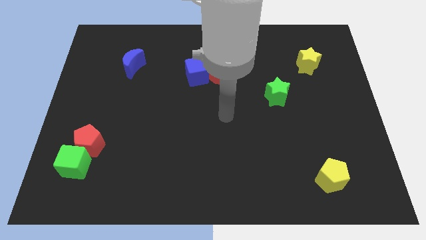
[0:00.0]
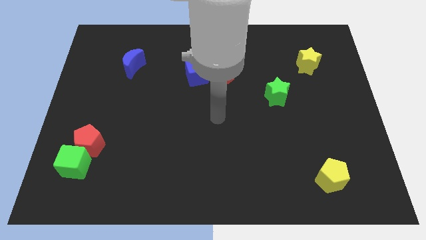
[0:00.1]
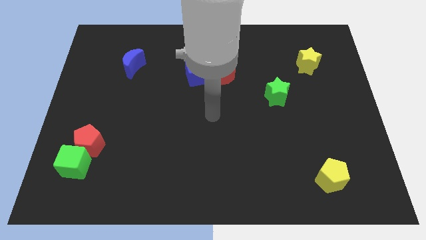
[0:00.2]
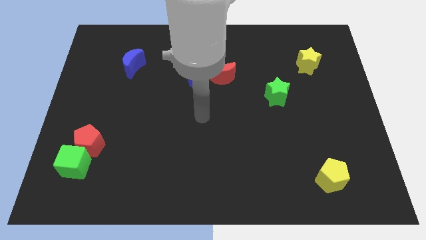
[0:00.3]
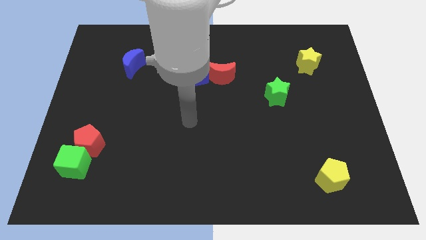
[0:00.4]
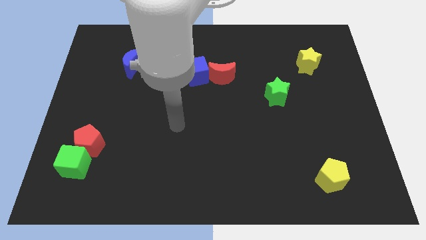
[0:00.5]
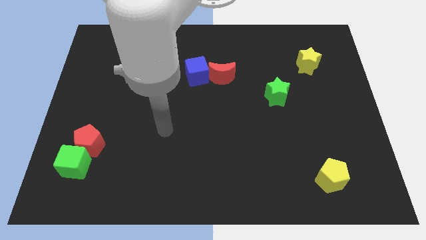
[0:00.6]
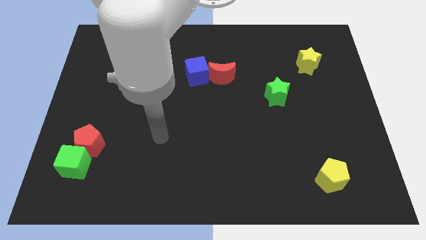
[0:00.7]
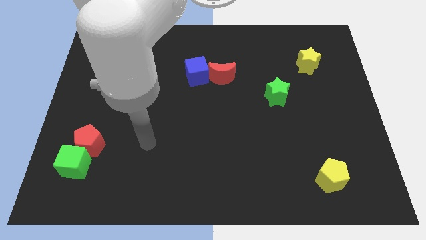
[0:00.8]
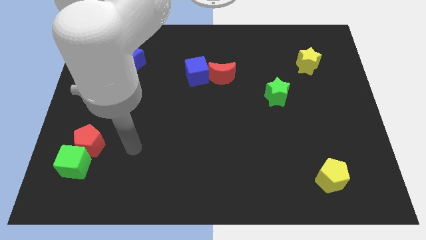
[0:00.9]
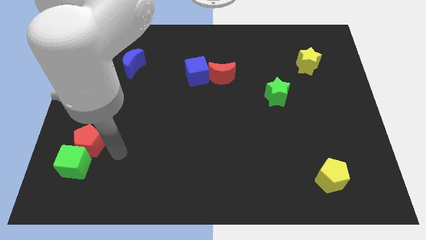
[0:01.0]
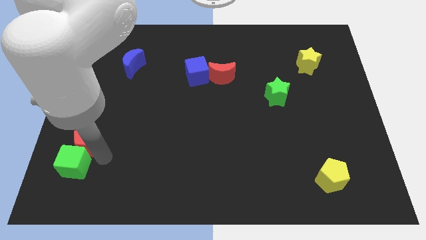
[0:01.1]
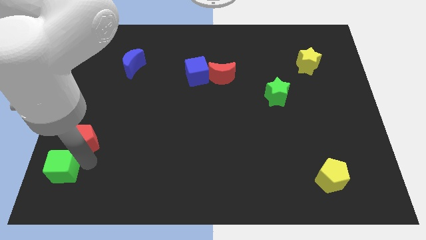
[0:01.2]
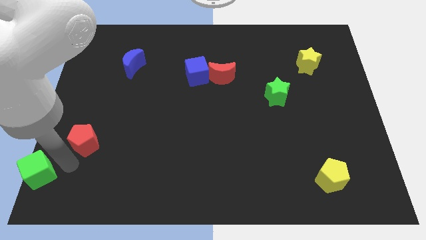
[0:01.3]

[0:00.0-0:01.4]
pull the red pentagon apart from the green cube

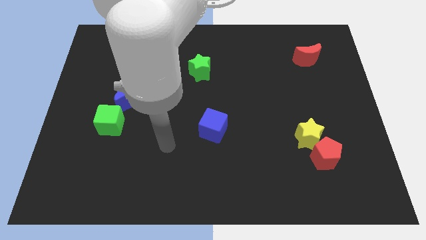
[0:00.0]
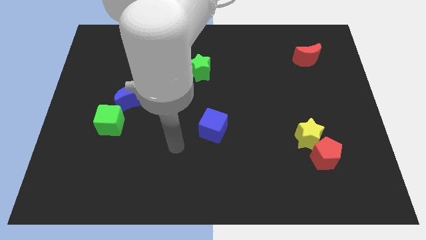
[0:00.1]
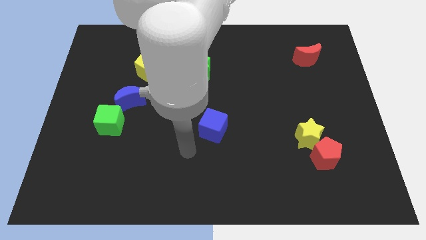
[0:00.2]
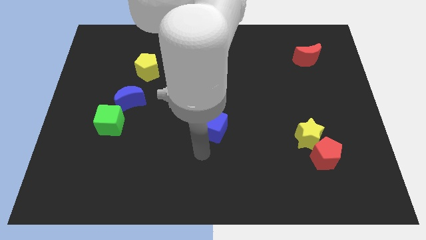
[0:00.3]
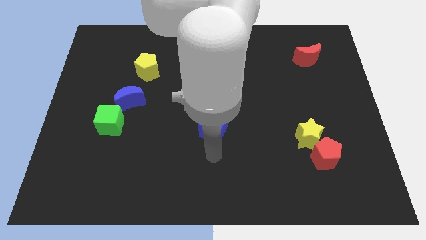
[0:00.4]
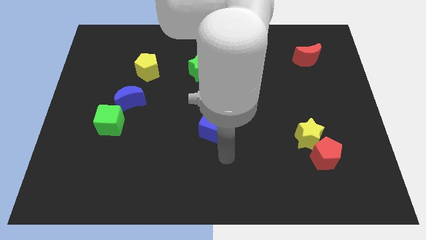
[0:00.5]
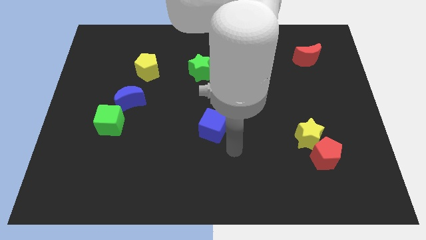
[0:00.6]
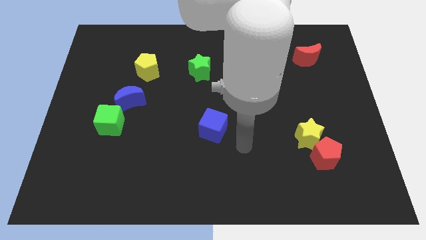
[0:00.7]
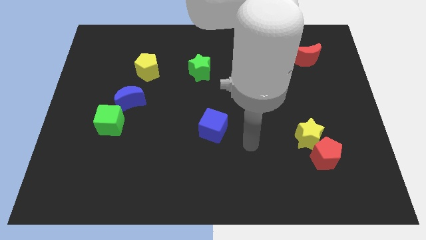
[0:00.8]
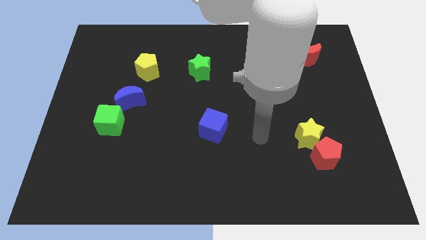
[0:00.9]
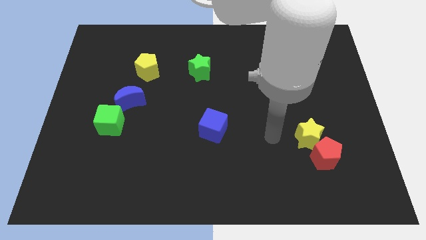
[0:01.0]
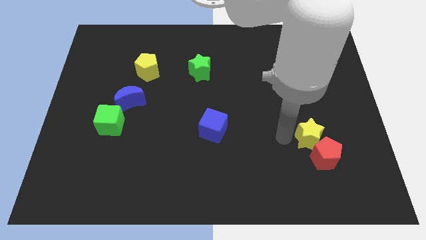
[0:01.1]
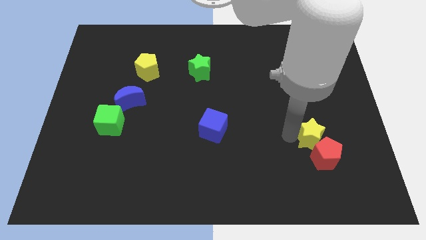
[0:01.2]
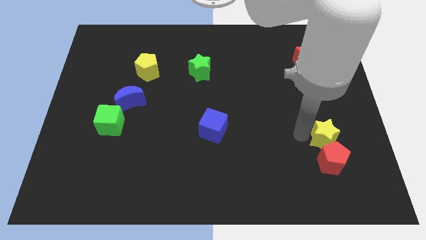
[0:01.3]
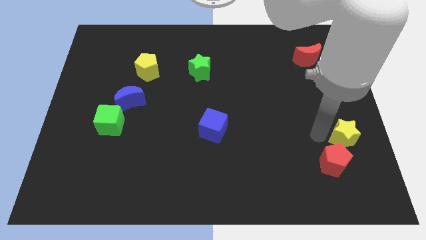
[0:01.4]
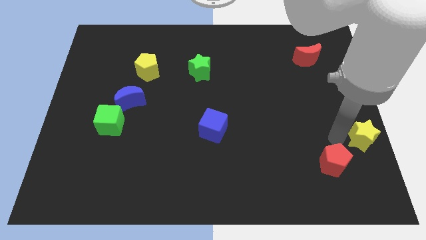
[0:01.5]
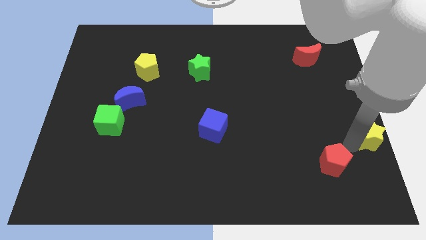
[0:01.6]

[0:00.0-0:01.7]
pull the red pentagon apart from the yellow star

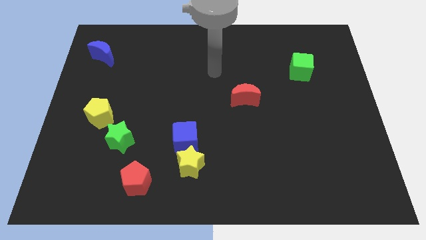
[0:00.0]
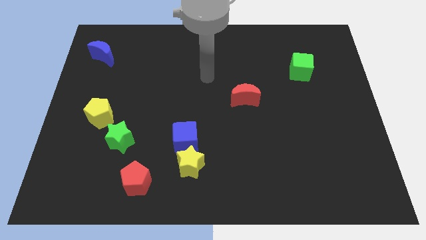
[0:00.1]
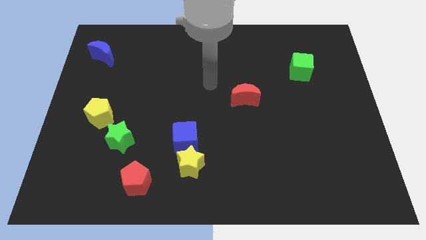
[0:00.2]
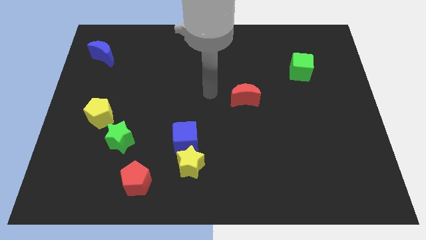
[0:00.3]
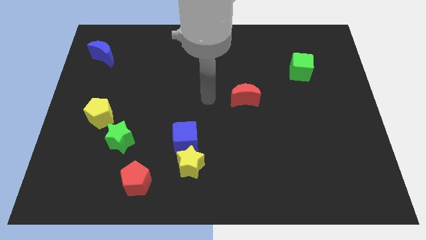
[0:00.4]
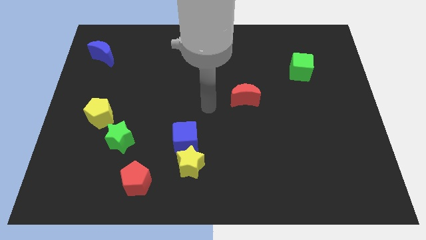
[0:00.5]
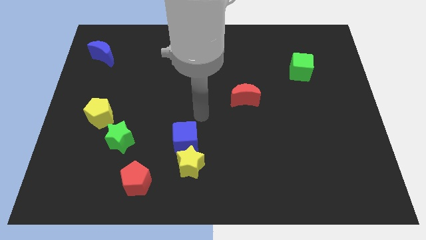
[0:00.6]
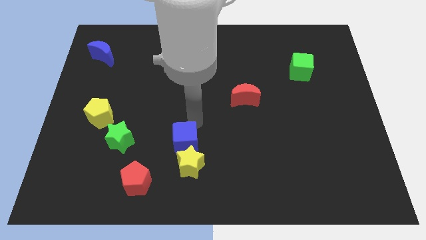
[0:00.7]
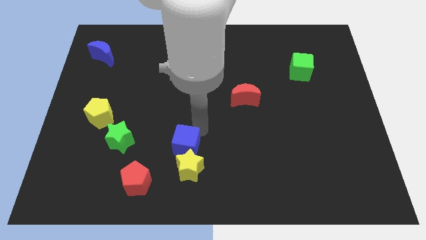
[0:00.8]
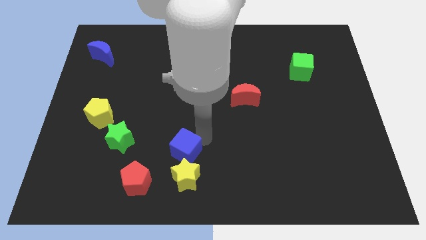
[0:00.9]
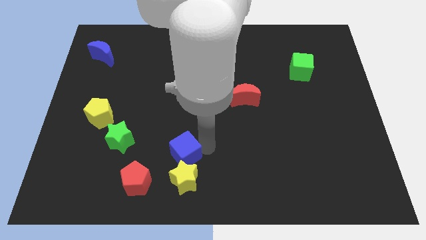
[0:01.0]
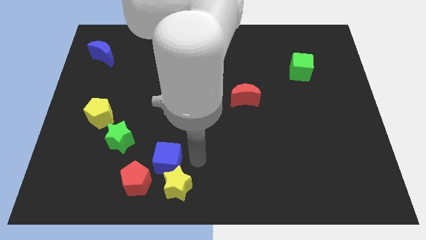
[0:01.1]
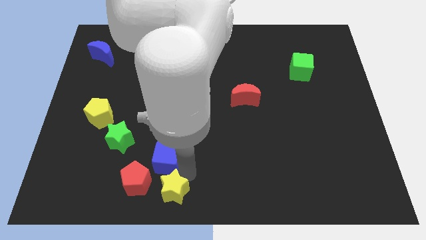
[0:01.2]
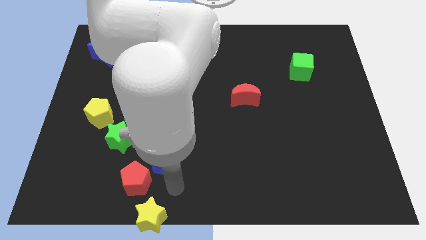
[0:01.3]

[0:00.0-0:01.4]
pull the blue cube apart from the yellow star

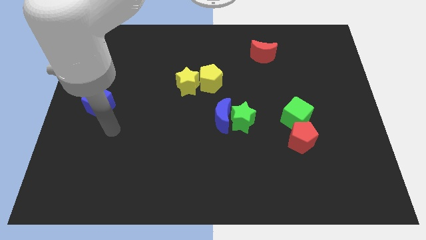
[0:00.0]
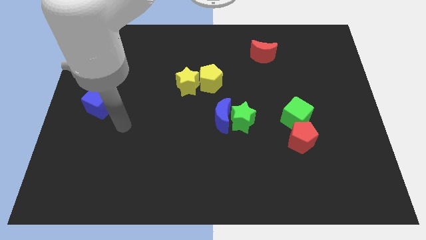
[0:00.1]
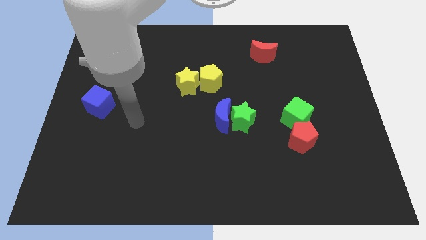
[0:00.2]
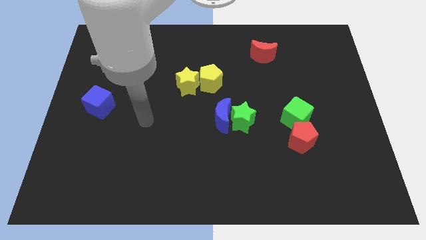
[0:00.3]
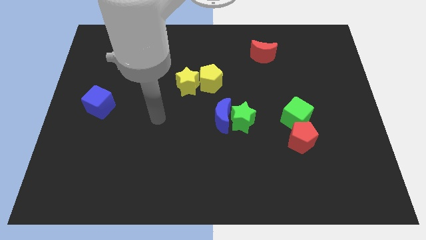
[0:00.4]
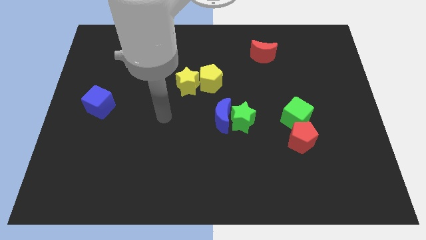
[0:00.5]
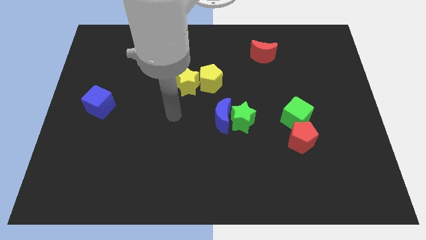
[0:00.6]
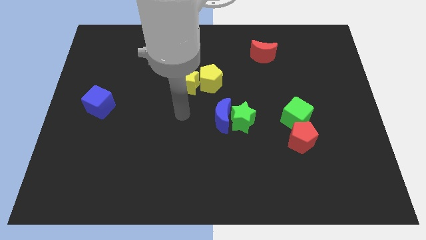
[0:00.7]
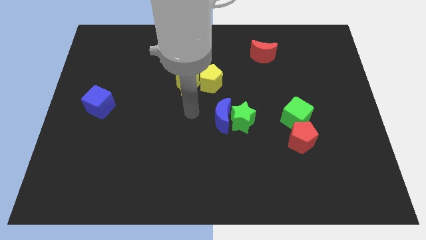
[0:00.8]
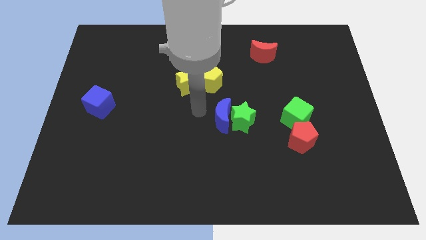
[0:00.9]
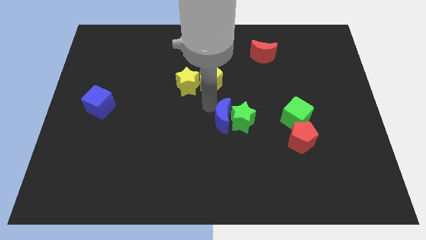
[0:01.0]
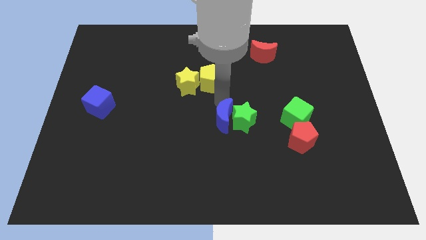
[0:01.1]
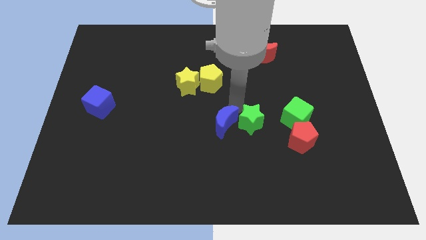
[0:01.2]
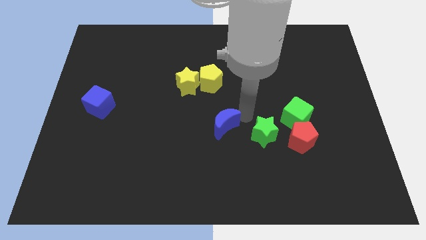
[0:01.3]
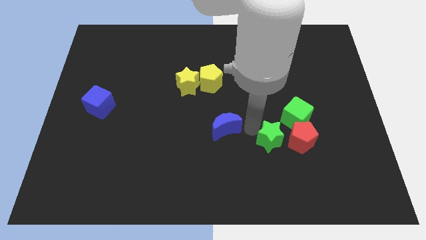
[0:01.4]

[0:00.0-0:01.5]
pull the blue moon apart from the green star

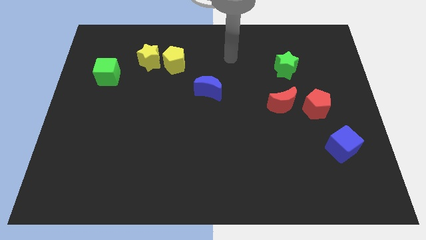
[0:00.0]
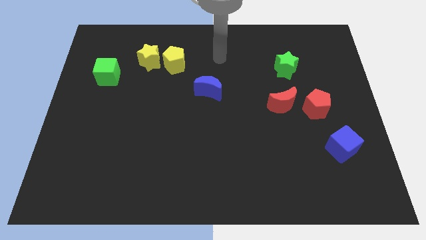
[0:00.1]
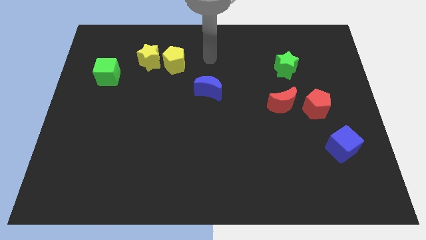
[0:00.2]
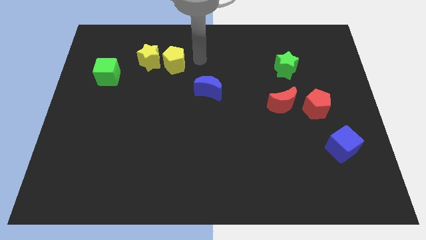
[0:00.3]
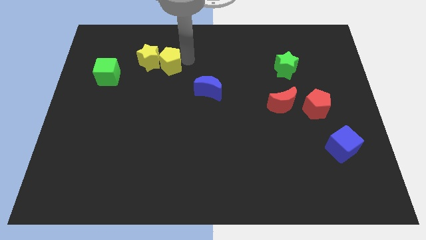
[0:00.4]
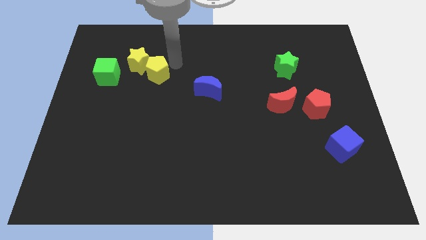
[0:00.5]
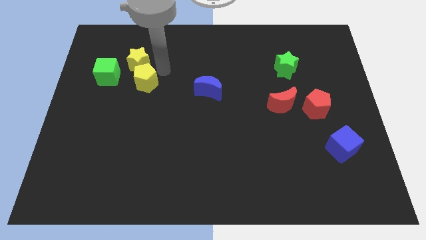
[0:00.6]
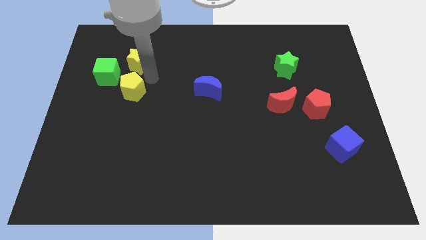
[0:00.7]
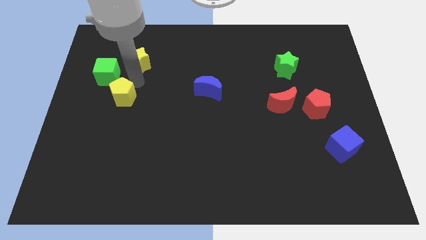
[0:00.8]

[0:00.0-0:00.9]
move the yellow star away from the yellow pentagon

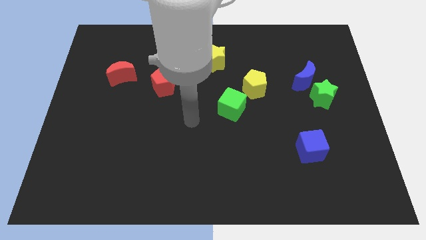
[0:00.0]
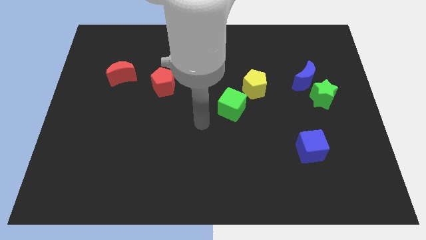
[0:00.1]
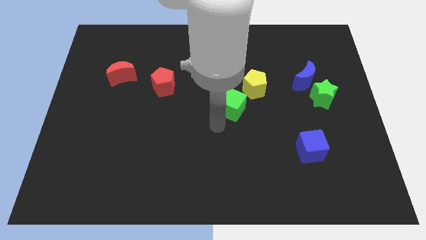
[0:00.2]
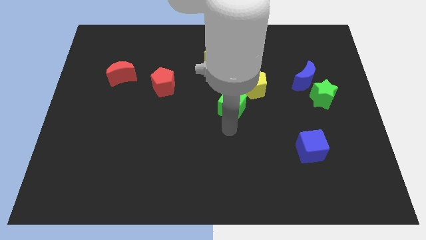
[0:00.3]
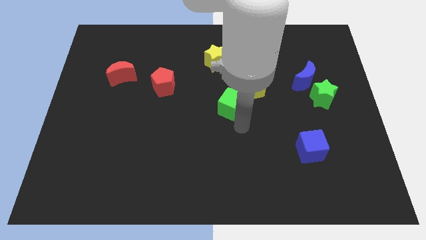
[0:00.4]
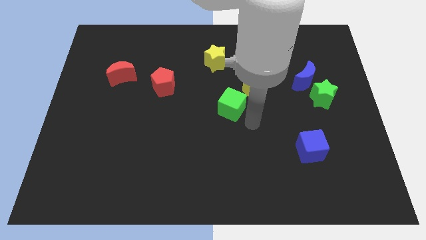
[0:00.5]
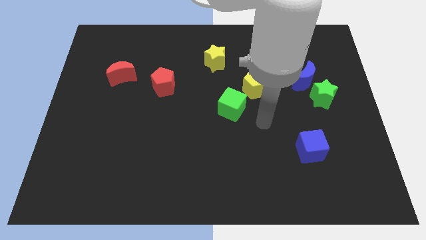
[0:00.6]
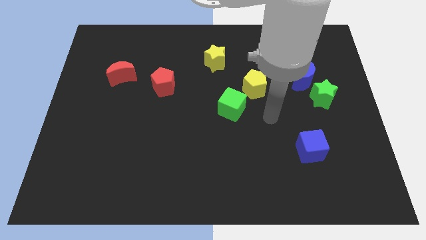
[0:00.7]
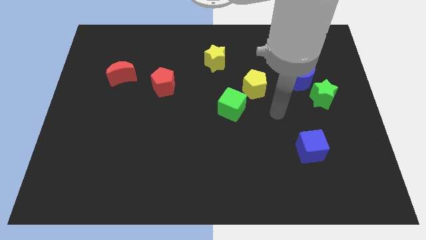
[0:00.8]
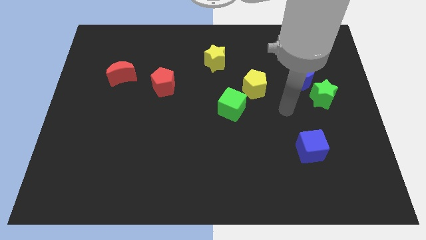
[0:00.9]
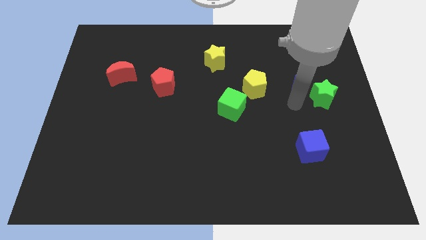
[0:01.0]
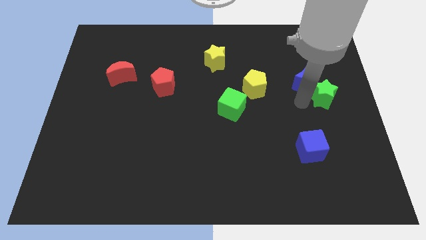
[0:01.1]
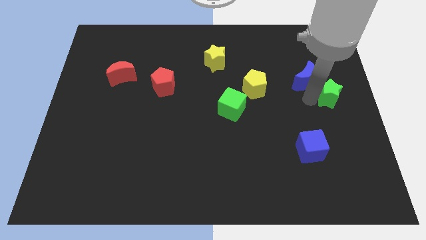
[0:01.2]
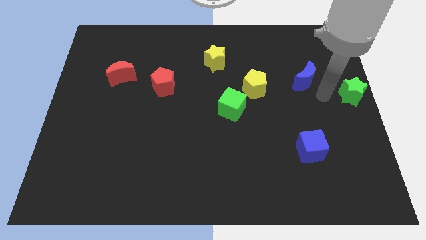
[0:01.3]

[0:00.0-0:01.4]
move the blue moon away from the green star

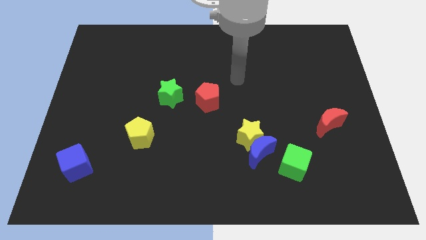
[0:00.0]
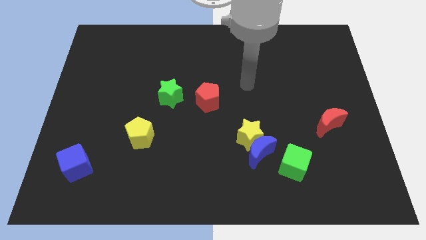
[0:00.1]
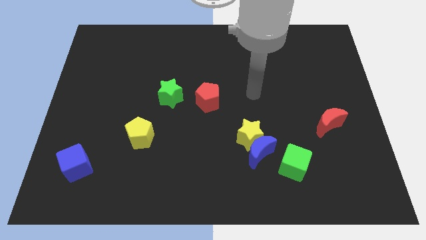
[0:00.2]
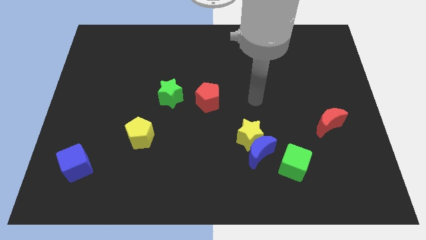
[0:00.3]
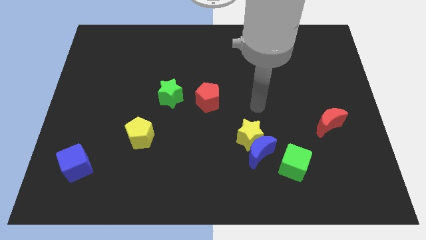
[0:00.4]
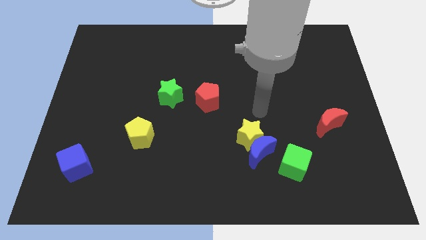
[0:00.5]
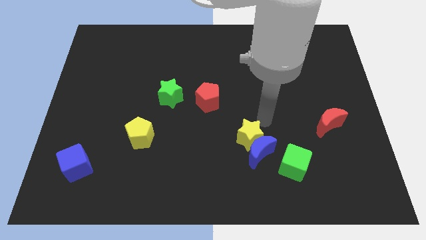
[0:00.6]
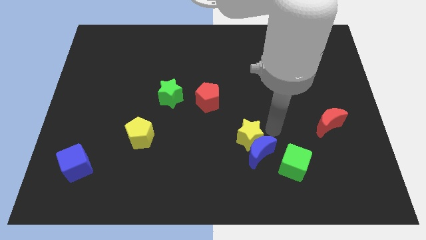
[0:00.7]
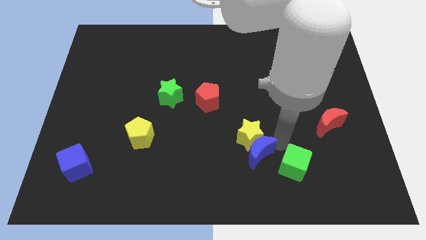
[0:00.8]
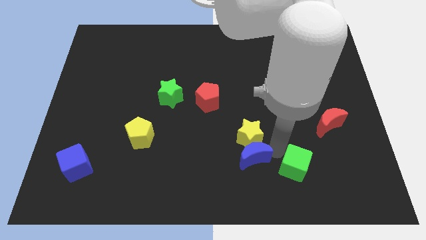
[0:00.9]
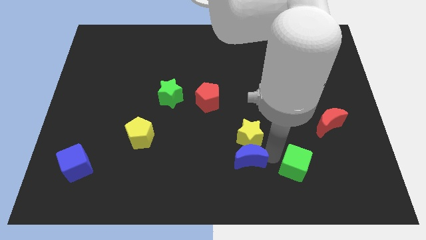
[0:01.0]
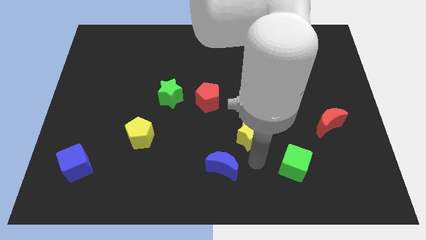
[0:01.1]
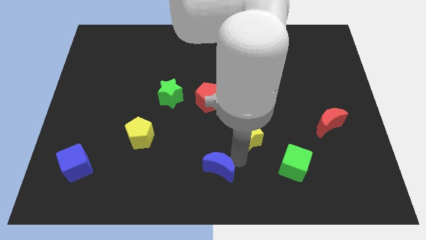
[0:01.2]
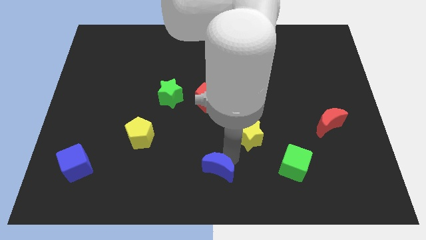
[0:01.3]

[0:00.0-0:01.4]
pull the yellow star apart from the blue moon
